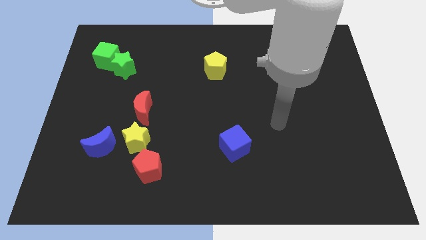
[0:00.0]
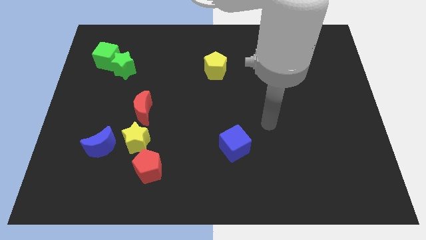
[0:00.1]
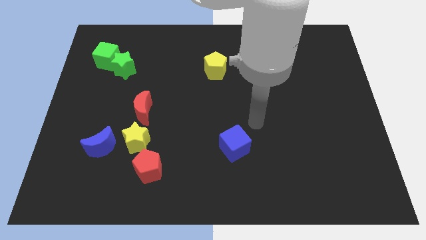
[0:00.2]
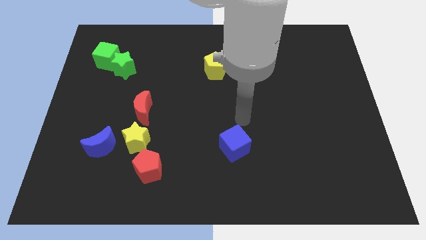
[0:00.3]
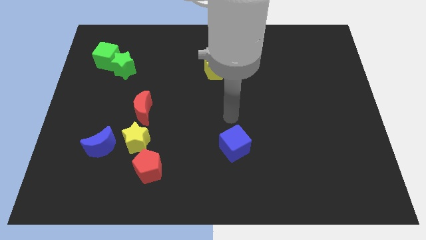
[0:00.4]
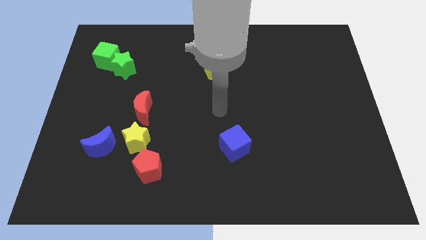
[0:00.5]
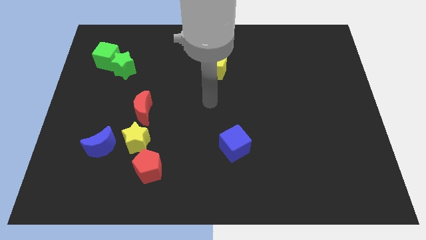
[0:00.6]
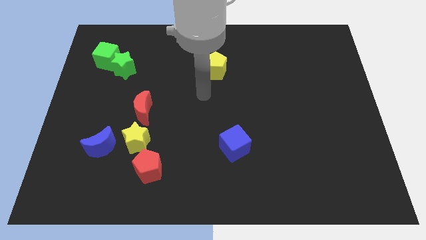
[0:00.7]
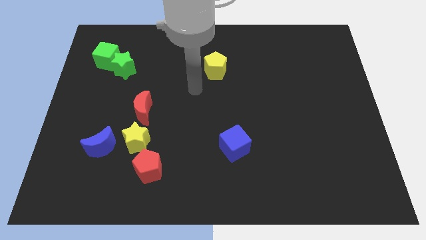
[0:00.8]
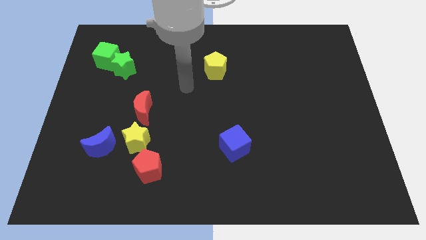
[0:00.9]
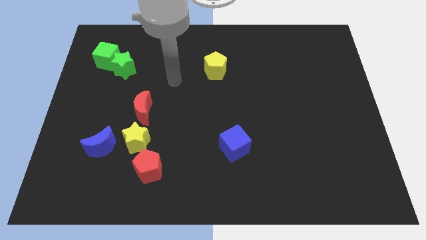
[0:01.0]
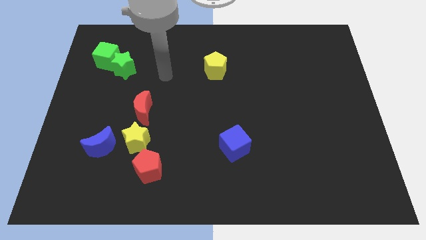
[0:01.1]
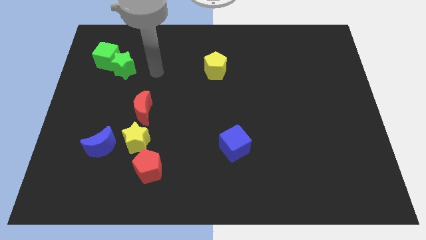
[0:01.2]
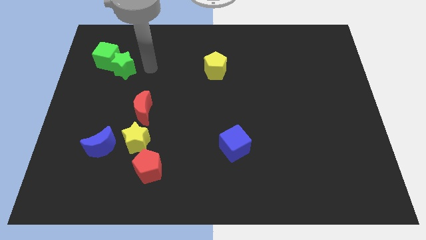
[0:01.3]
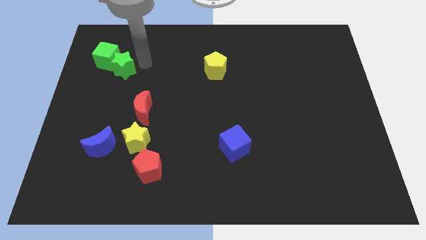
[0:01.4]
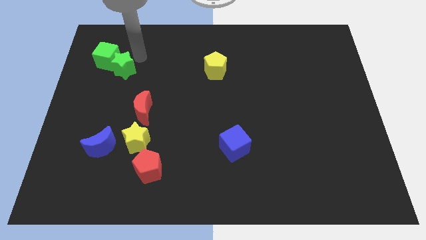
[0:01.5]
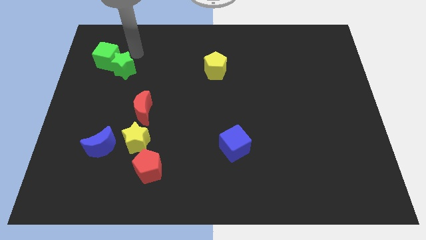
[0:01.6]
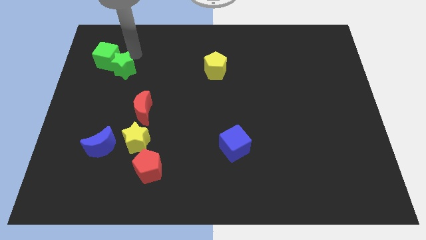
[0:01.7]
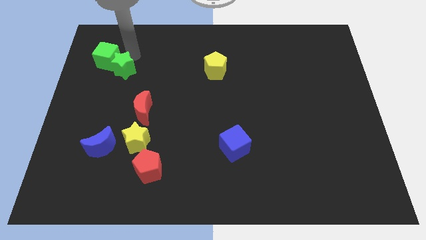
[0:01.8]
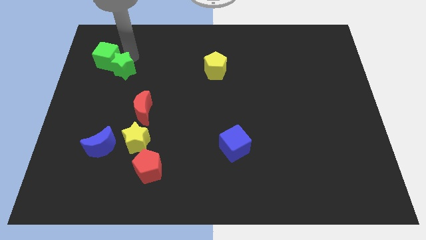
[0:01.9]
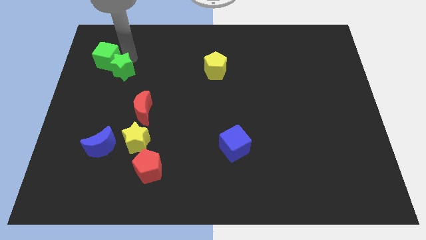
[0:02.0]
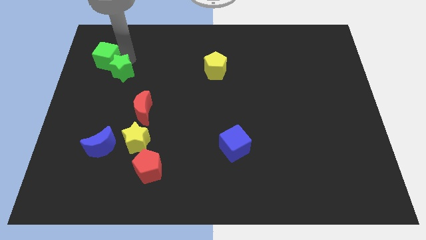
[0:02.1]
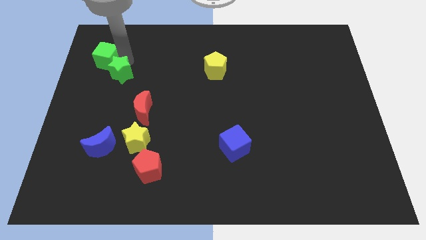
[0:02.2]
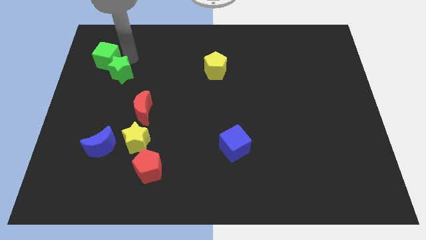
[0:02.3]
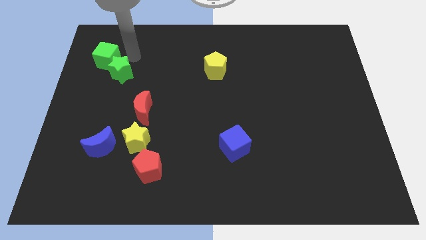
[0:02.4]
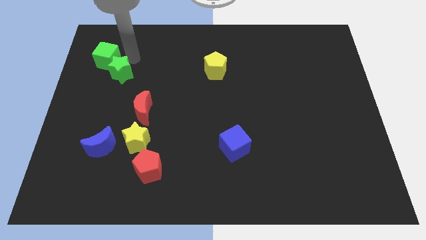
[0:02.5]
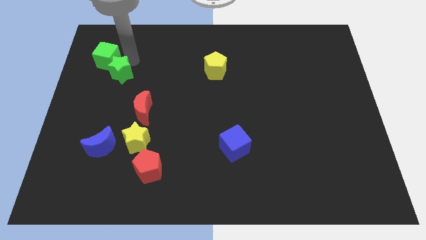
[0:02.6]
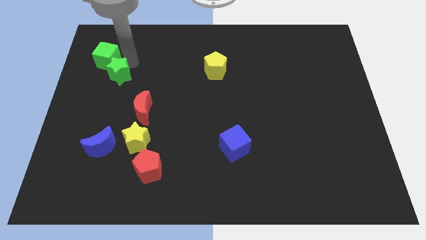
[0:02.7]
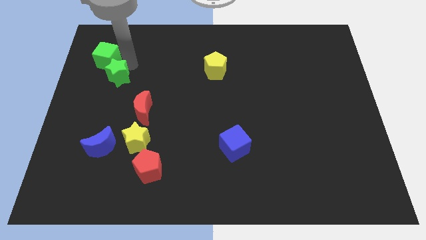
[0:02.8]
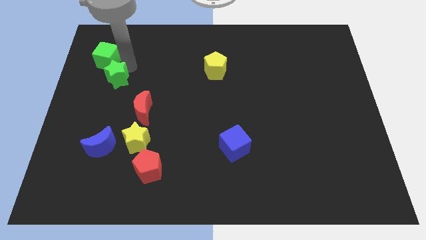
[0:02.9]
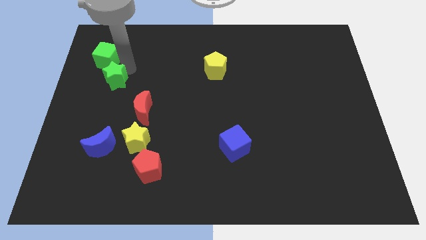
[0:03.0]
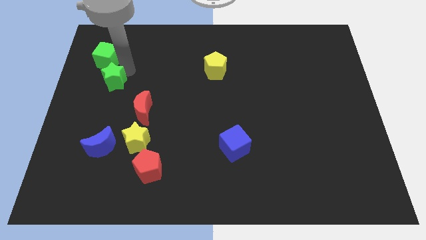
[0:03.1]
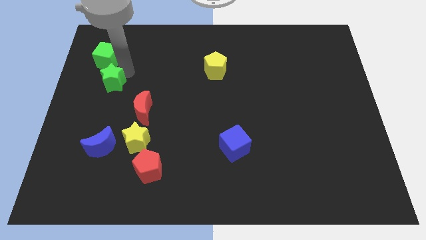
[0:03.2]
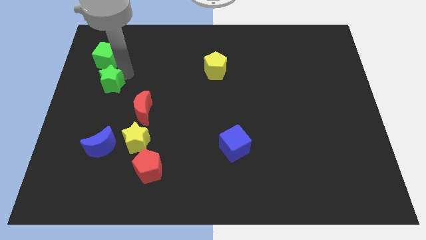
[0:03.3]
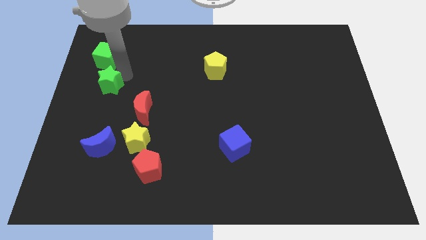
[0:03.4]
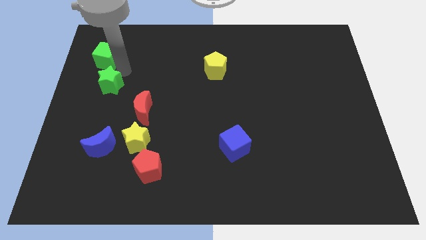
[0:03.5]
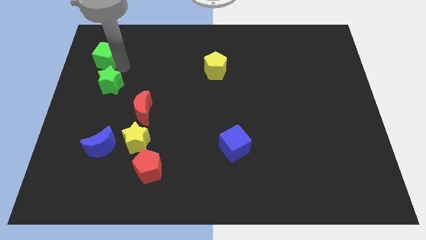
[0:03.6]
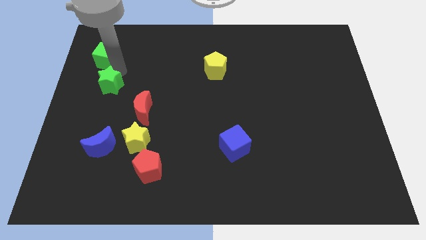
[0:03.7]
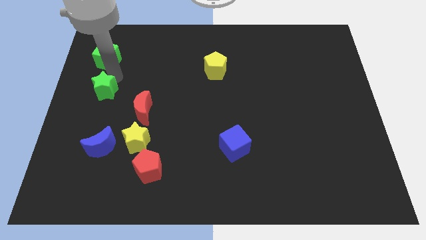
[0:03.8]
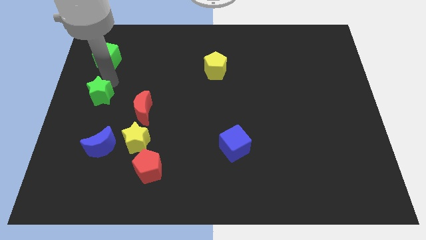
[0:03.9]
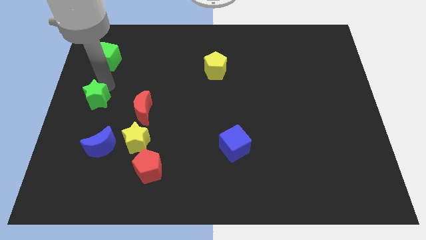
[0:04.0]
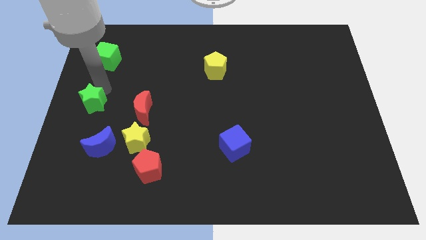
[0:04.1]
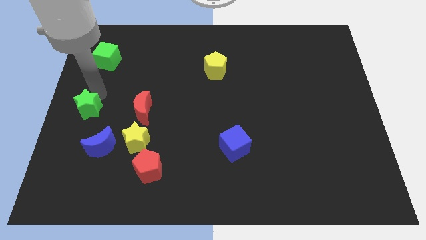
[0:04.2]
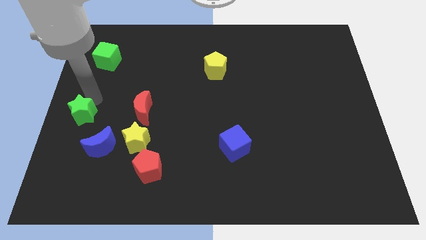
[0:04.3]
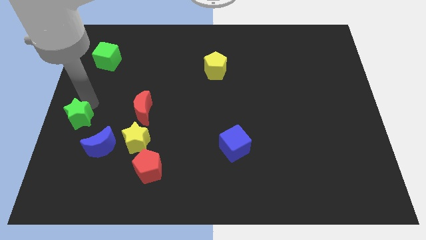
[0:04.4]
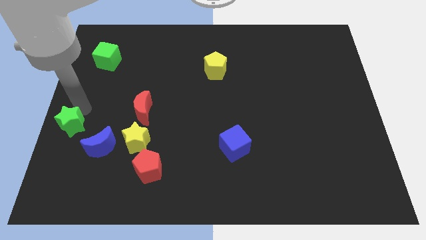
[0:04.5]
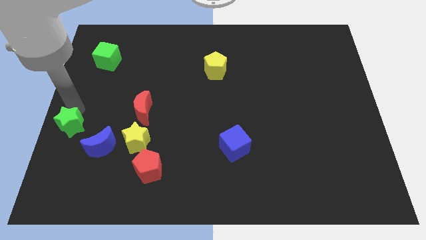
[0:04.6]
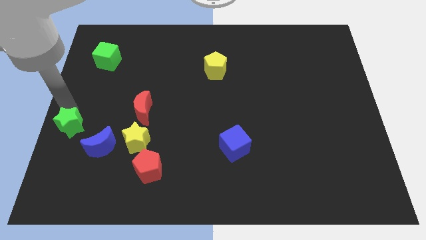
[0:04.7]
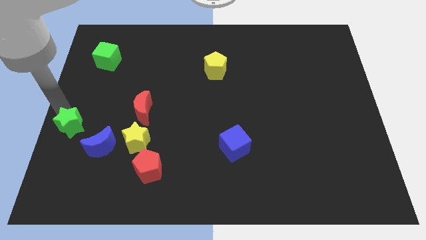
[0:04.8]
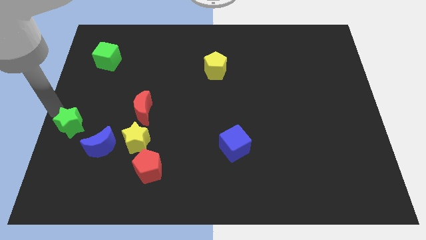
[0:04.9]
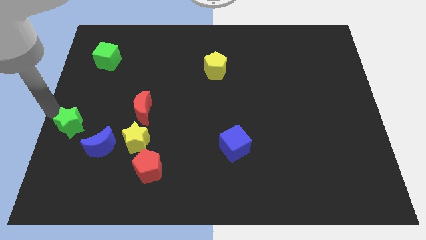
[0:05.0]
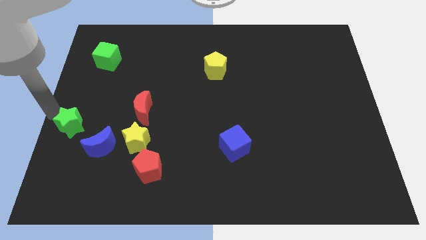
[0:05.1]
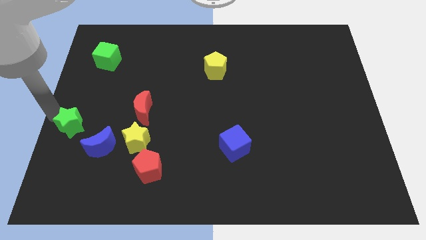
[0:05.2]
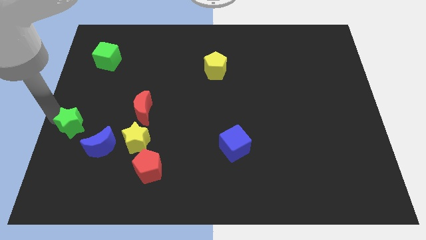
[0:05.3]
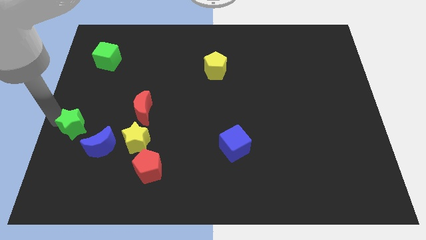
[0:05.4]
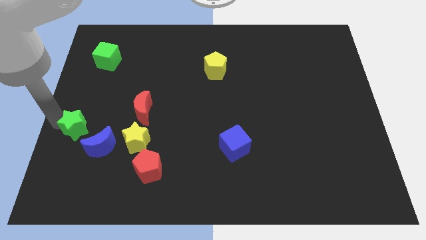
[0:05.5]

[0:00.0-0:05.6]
push the green star to the left of the yellow star

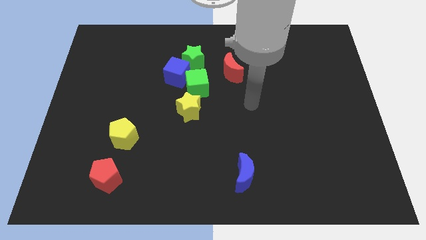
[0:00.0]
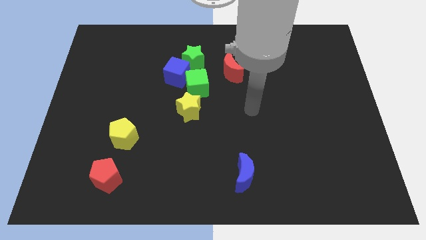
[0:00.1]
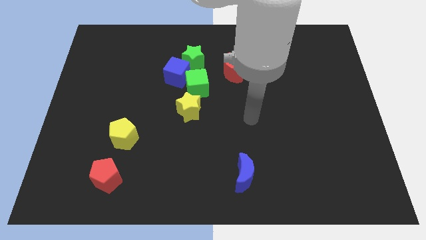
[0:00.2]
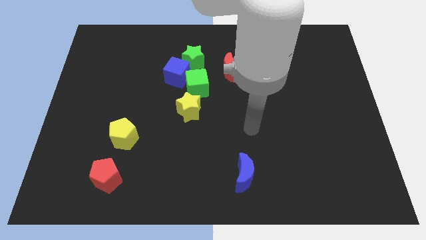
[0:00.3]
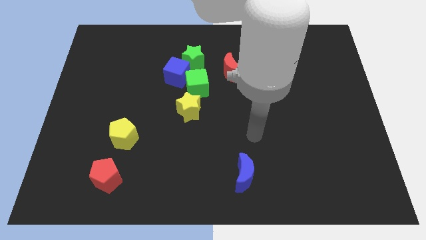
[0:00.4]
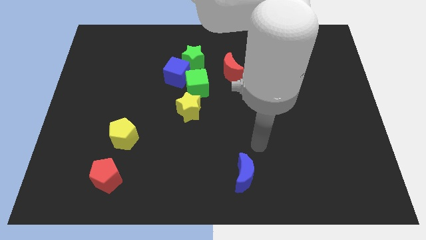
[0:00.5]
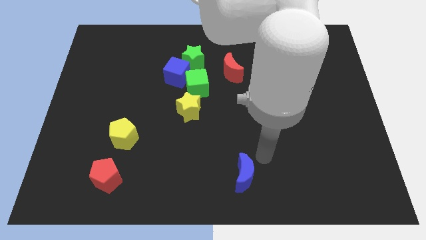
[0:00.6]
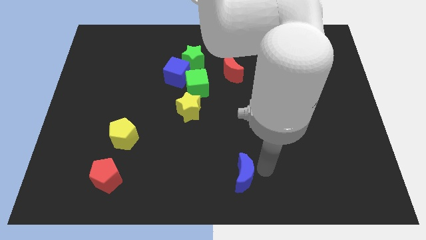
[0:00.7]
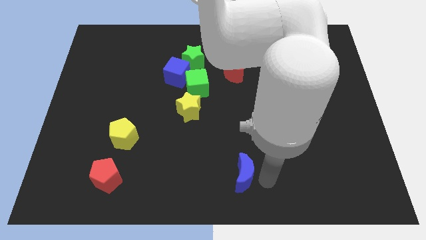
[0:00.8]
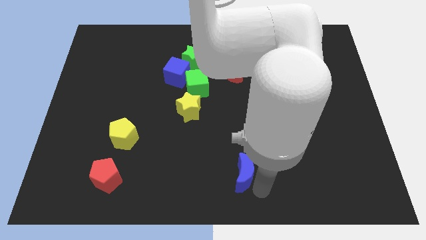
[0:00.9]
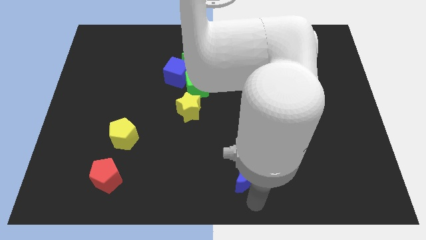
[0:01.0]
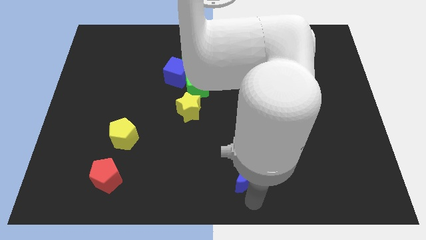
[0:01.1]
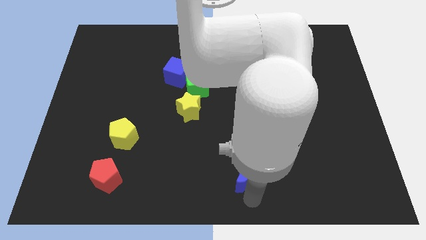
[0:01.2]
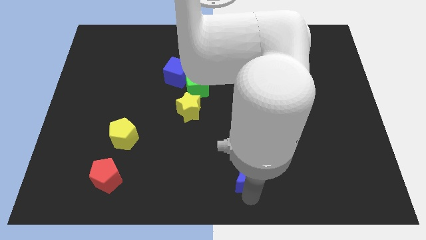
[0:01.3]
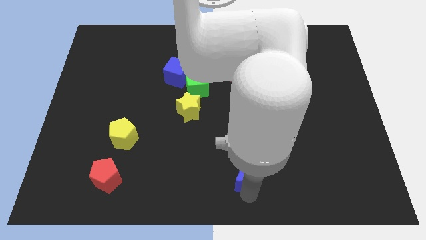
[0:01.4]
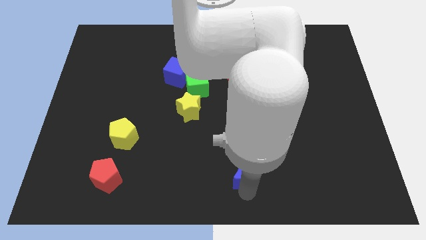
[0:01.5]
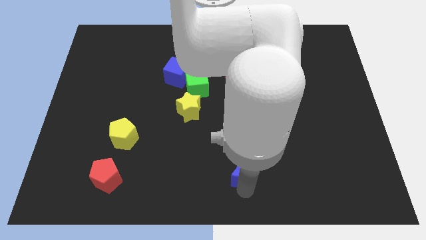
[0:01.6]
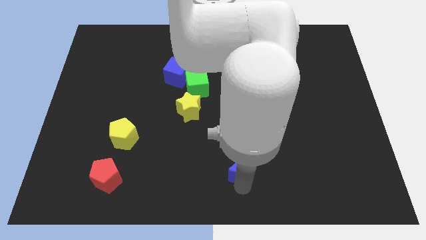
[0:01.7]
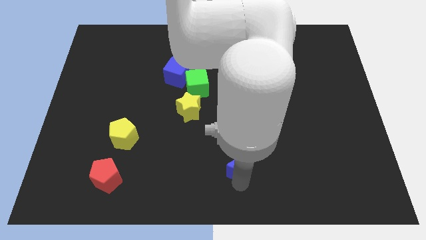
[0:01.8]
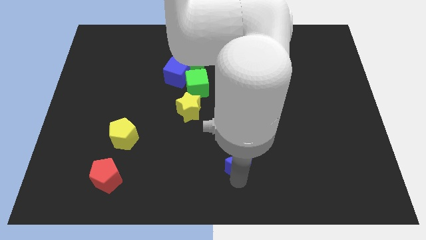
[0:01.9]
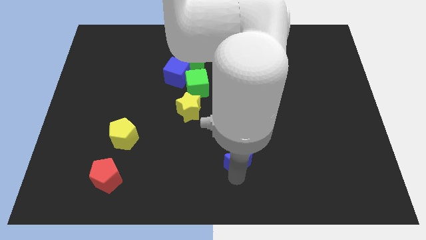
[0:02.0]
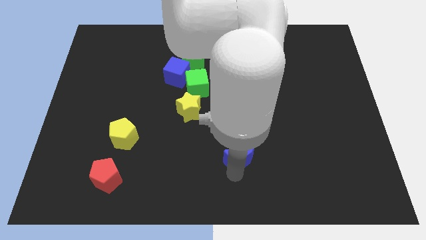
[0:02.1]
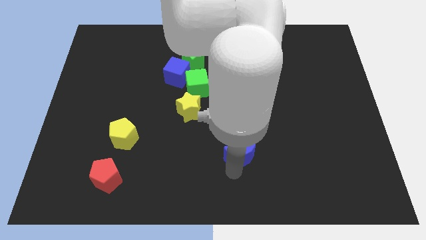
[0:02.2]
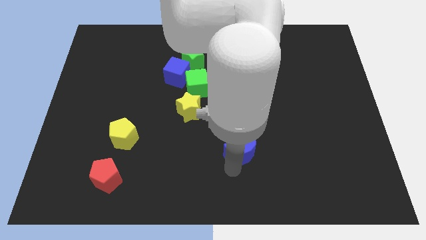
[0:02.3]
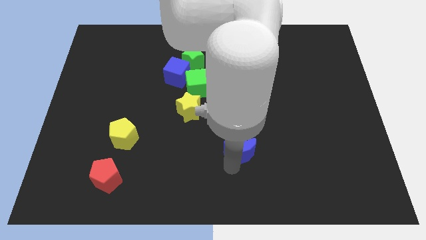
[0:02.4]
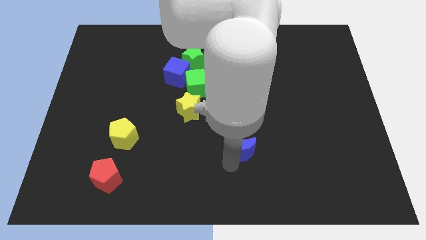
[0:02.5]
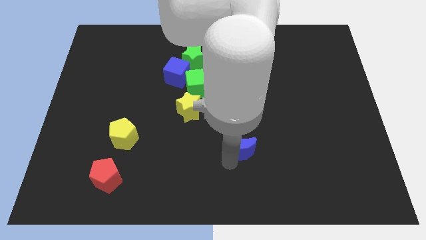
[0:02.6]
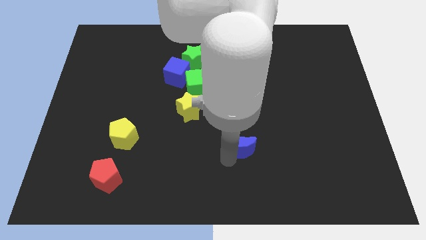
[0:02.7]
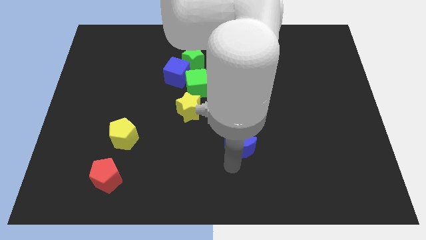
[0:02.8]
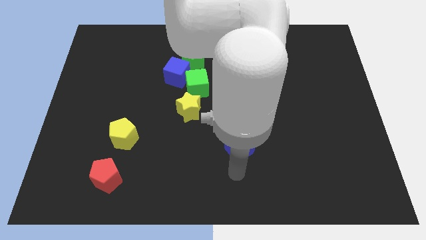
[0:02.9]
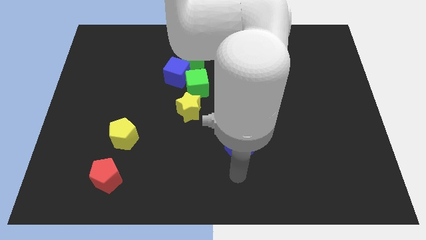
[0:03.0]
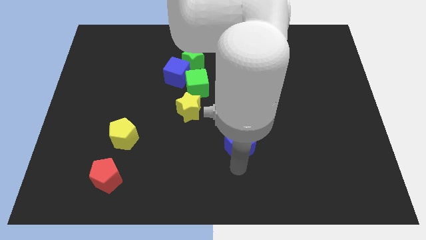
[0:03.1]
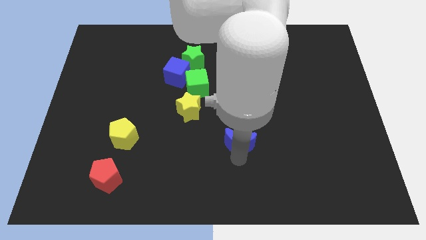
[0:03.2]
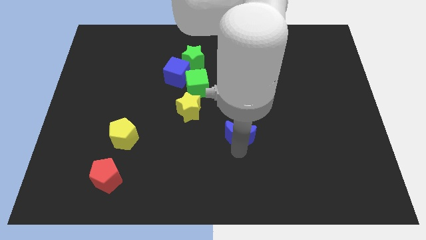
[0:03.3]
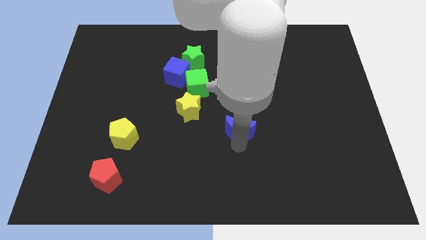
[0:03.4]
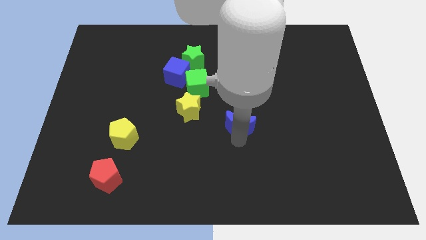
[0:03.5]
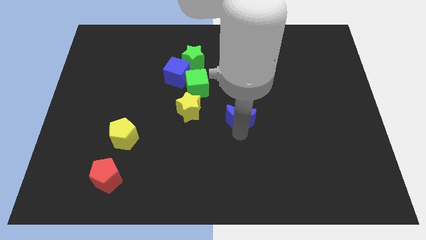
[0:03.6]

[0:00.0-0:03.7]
push the blue moon below the red moon
